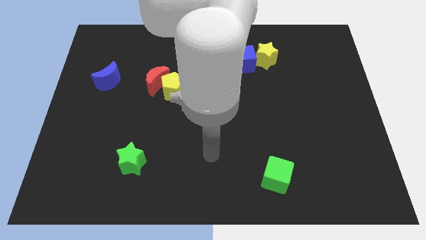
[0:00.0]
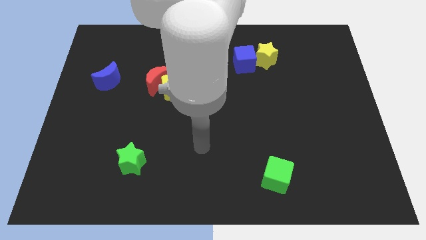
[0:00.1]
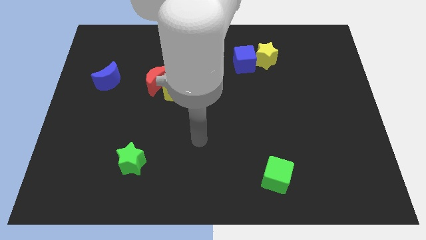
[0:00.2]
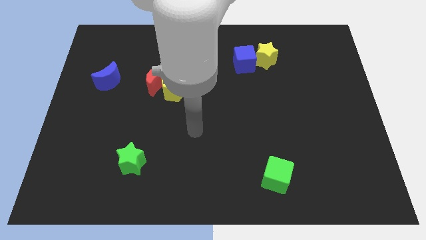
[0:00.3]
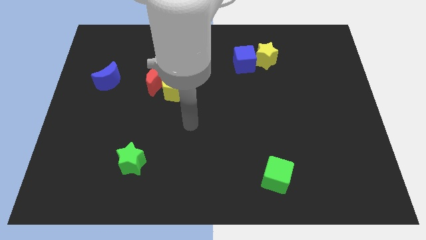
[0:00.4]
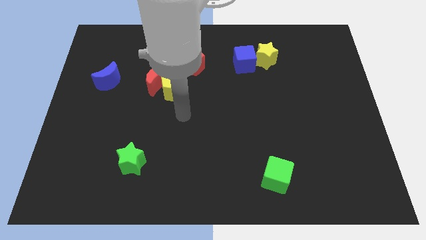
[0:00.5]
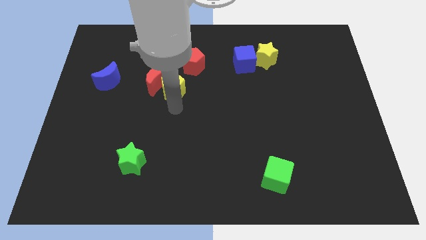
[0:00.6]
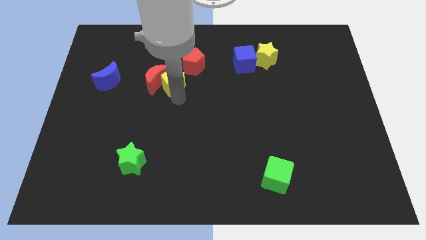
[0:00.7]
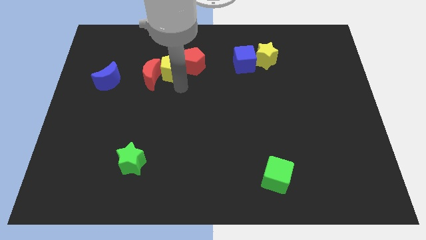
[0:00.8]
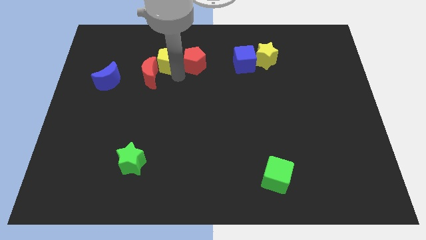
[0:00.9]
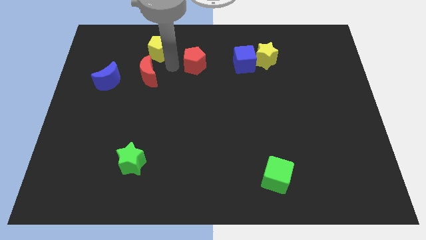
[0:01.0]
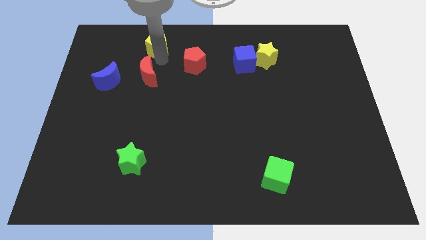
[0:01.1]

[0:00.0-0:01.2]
separate the red moon from the yellow pentagon

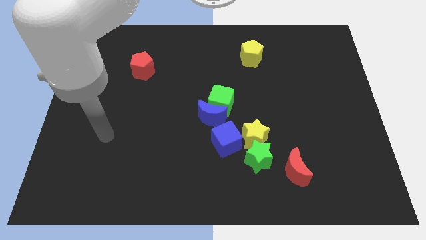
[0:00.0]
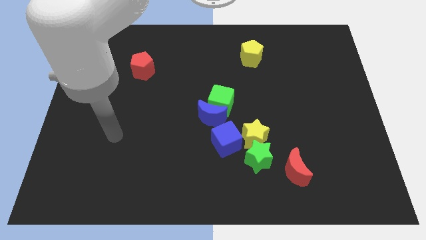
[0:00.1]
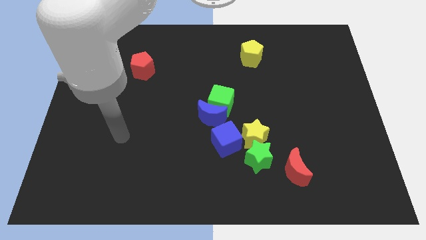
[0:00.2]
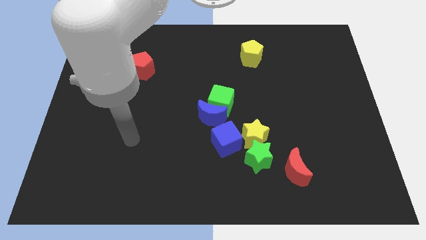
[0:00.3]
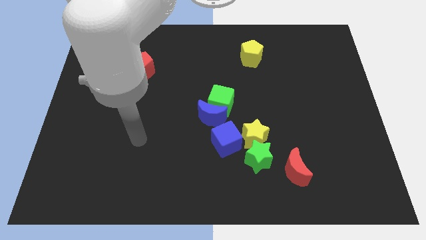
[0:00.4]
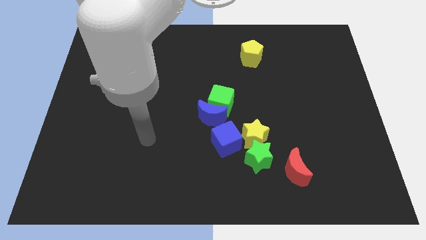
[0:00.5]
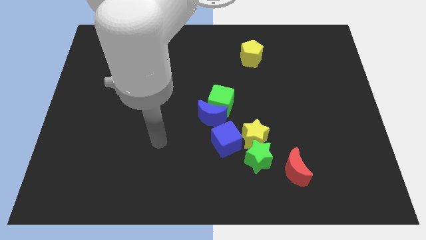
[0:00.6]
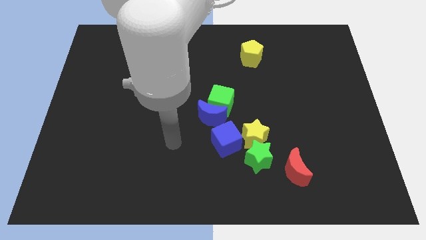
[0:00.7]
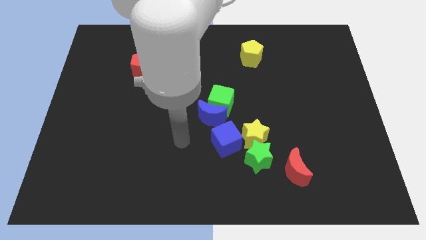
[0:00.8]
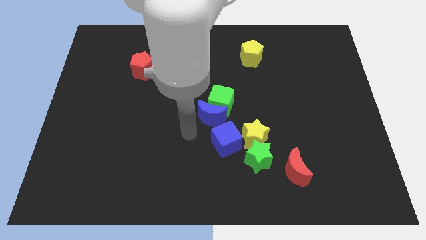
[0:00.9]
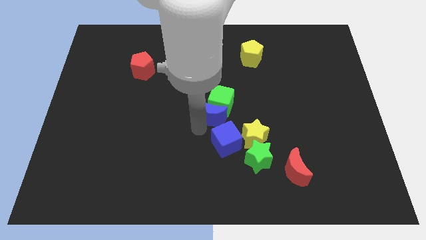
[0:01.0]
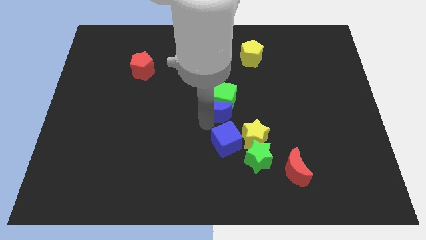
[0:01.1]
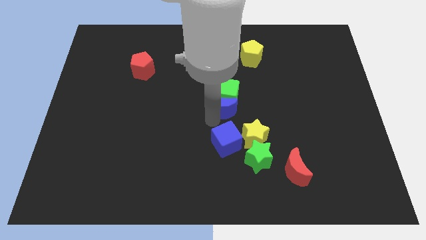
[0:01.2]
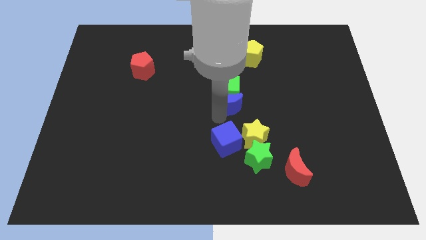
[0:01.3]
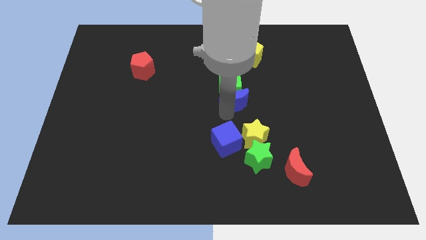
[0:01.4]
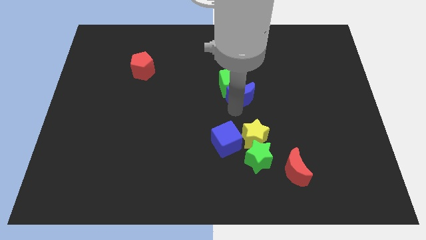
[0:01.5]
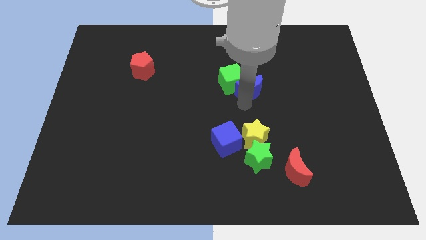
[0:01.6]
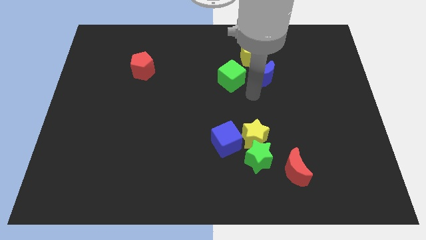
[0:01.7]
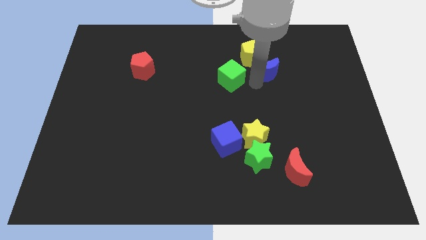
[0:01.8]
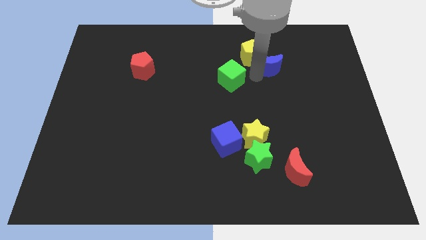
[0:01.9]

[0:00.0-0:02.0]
separate the green cube from the blue moon

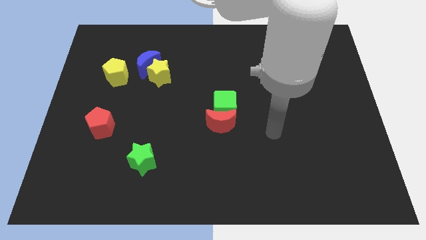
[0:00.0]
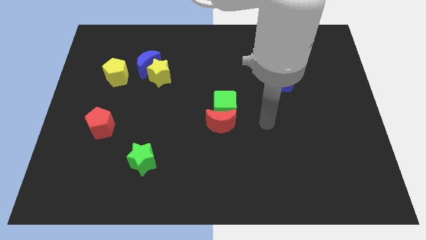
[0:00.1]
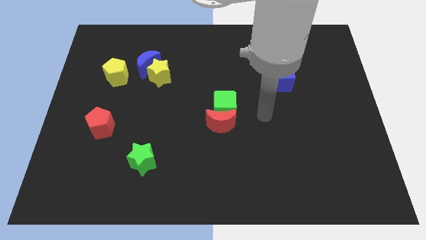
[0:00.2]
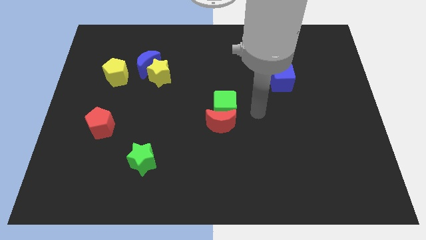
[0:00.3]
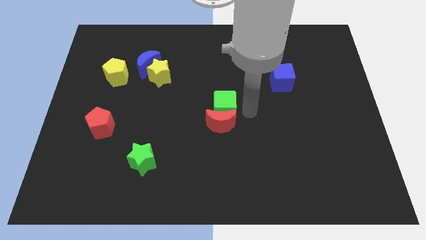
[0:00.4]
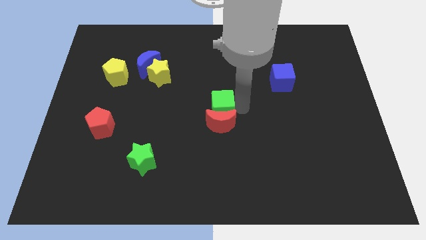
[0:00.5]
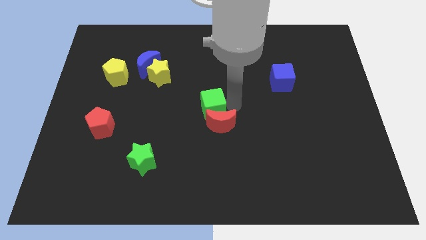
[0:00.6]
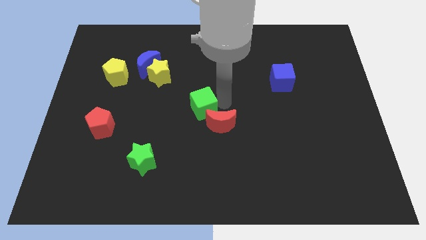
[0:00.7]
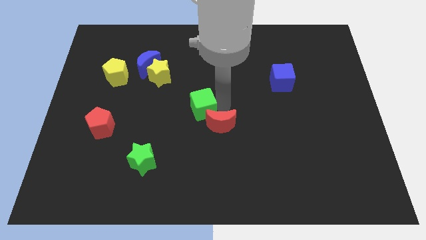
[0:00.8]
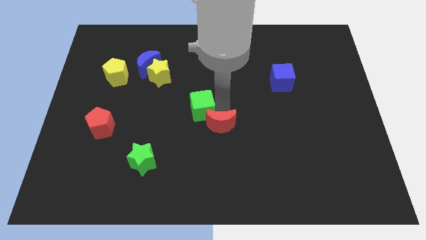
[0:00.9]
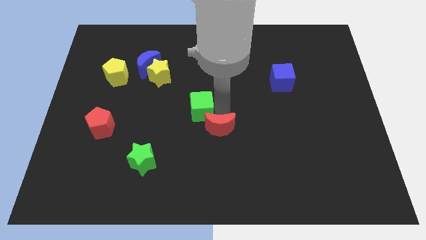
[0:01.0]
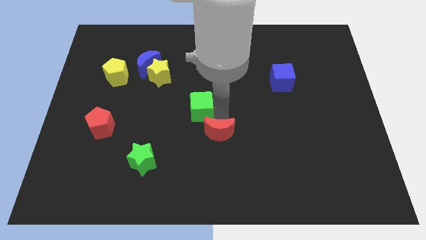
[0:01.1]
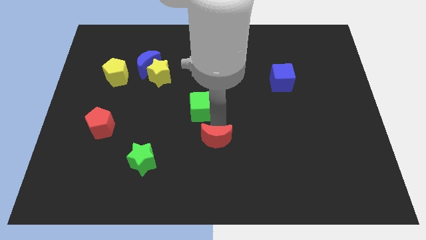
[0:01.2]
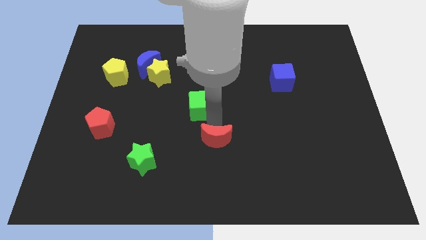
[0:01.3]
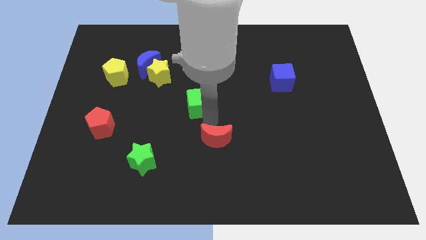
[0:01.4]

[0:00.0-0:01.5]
separate the red moon from the green cube

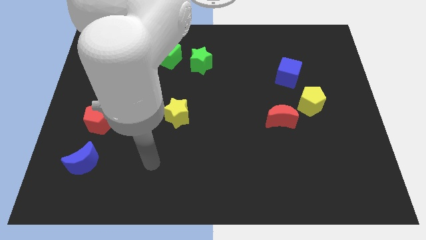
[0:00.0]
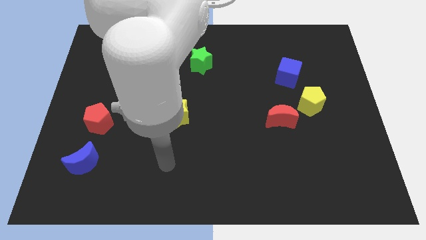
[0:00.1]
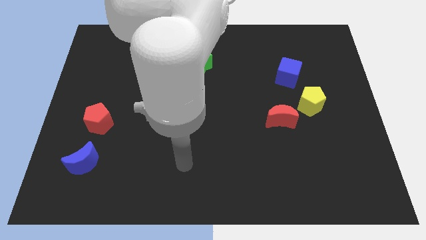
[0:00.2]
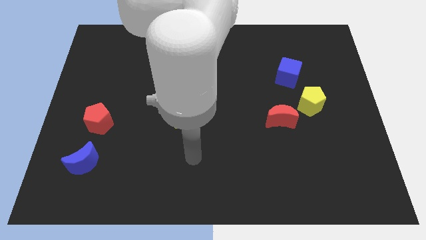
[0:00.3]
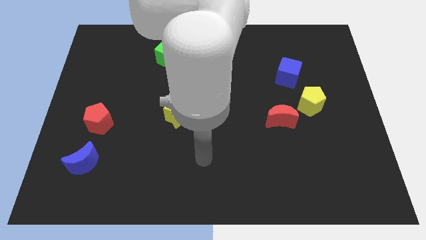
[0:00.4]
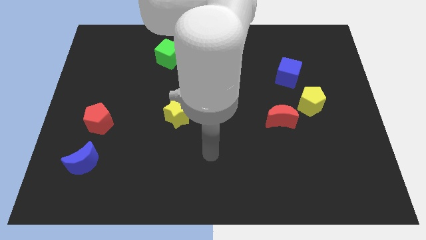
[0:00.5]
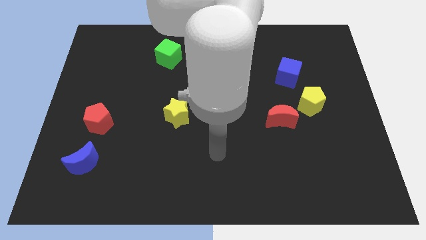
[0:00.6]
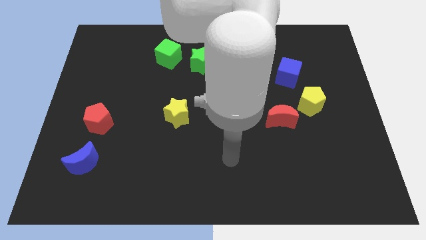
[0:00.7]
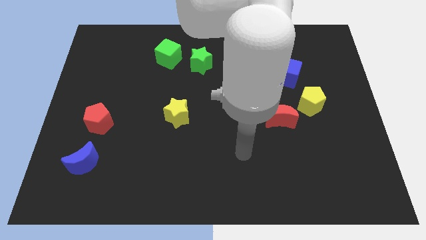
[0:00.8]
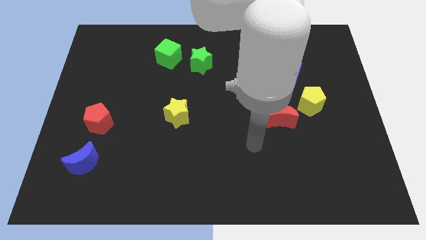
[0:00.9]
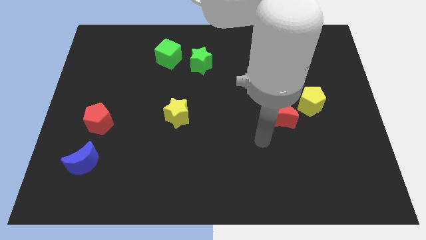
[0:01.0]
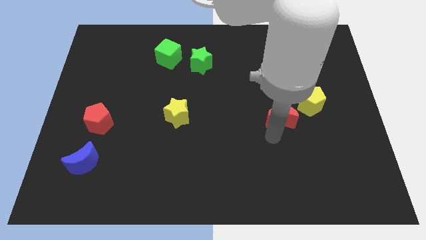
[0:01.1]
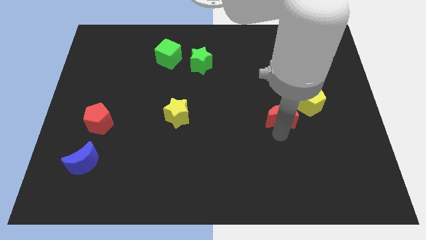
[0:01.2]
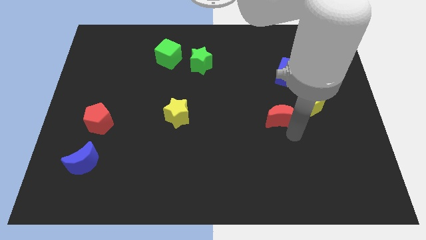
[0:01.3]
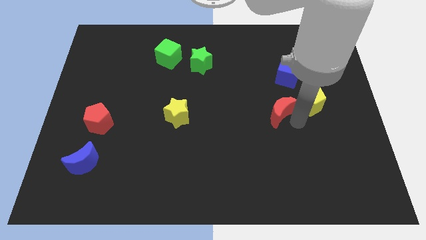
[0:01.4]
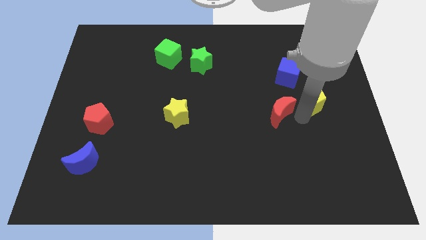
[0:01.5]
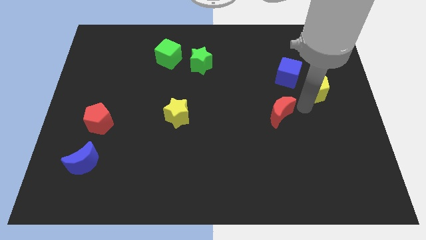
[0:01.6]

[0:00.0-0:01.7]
pull the red moon apart from the yellow pentagon

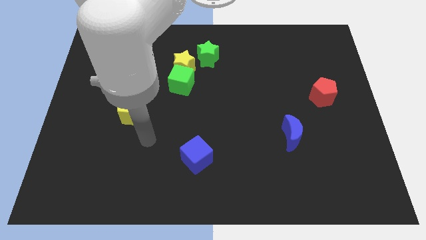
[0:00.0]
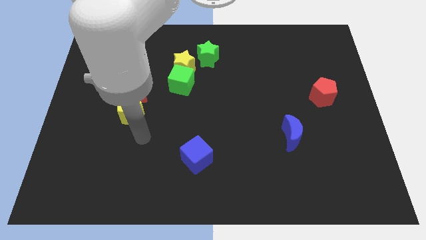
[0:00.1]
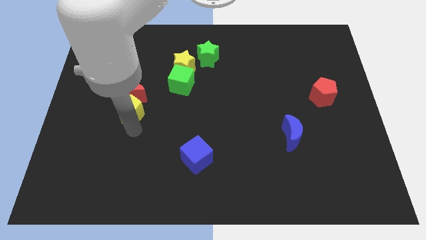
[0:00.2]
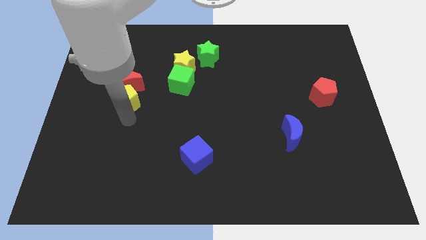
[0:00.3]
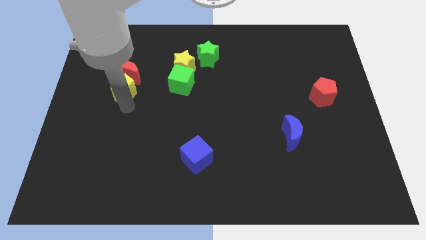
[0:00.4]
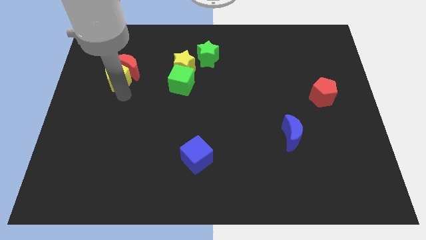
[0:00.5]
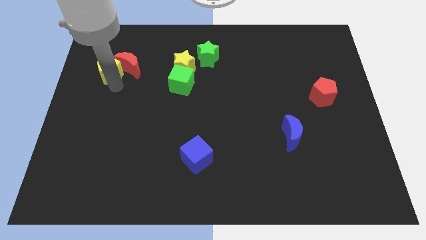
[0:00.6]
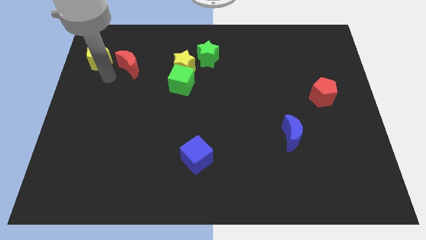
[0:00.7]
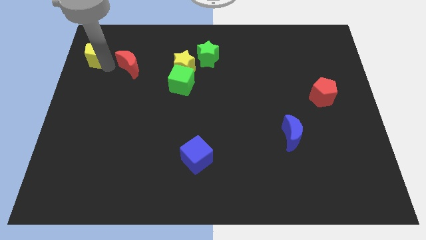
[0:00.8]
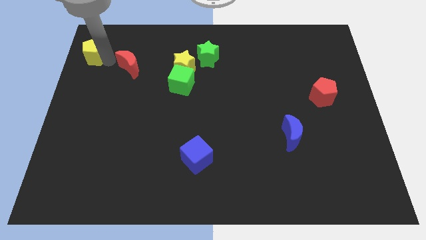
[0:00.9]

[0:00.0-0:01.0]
move the red moon away from the yellow pentagon

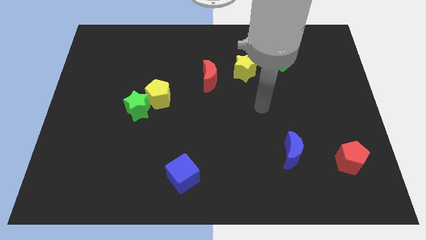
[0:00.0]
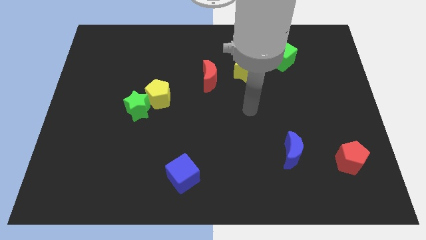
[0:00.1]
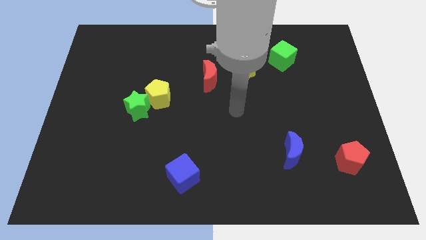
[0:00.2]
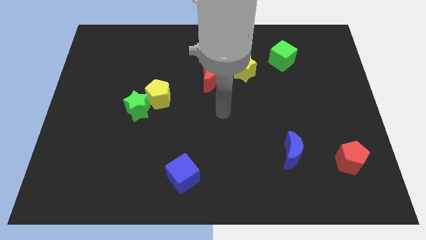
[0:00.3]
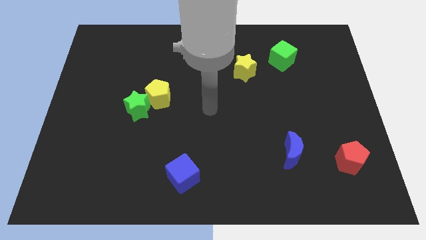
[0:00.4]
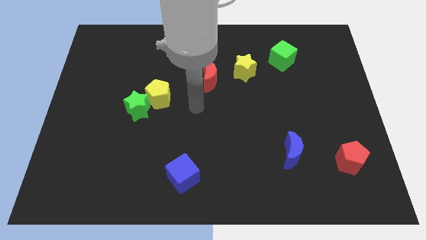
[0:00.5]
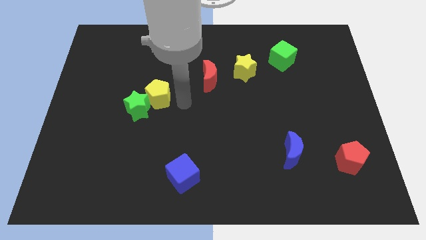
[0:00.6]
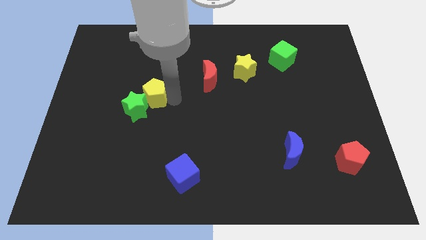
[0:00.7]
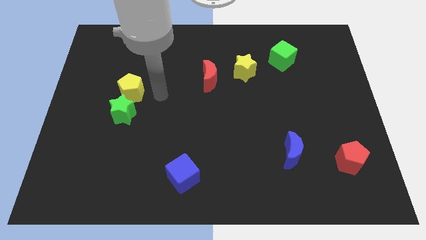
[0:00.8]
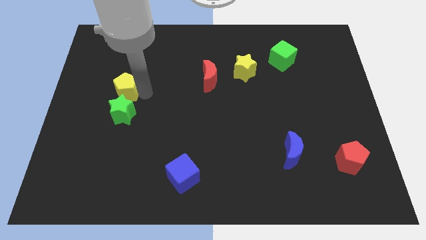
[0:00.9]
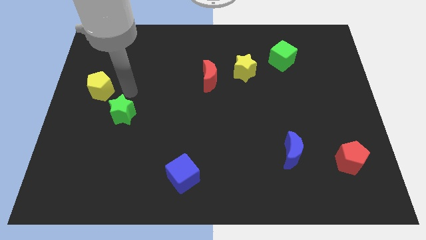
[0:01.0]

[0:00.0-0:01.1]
separate the green star from the yellow pentagon

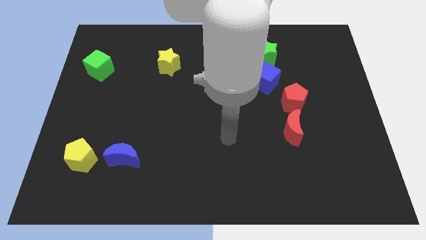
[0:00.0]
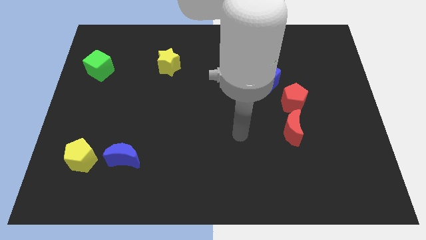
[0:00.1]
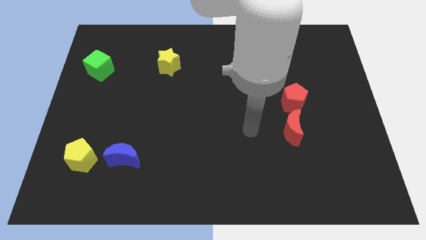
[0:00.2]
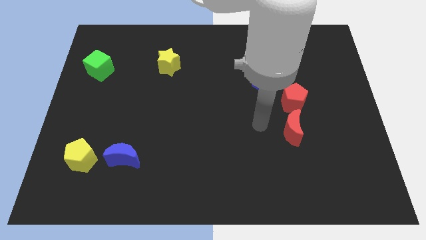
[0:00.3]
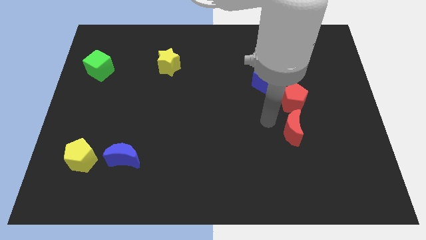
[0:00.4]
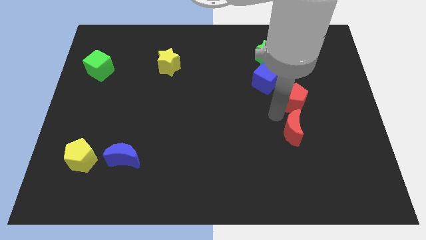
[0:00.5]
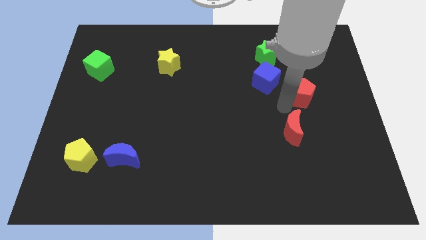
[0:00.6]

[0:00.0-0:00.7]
separate the red moon from the red pentagon
